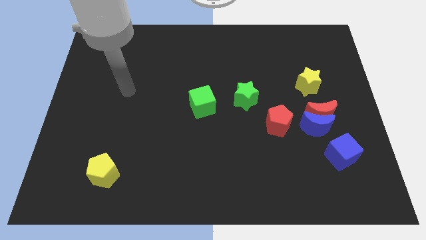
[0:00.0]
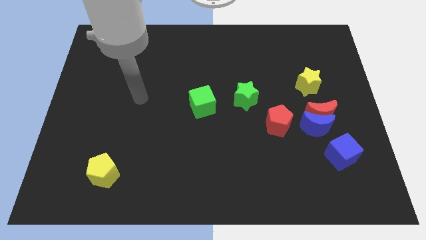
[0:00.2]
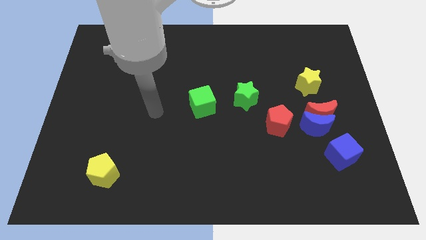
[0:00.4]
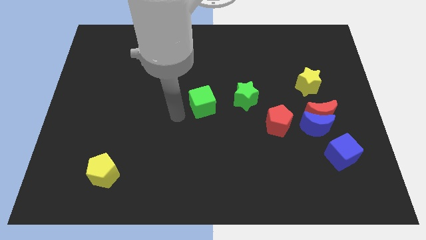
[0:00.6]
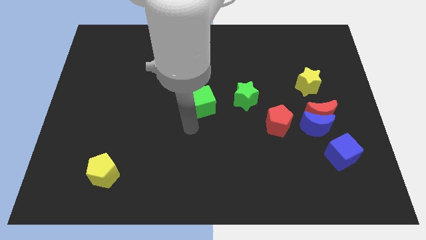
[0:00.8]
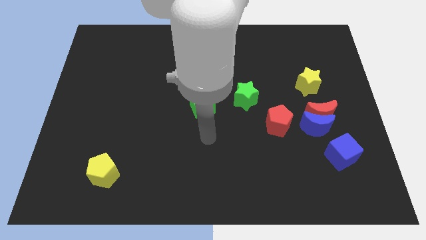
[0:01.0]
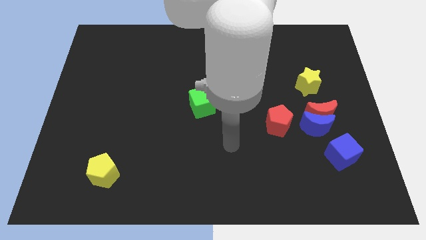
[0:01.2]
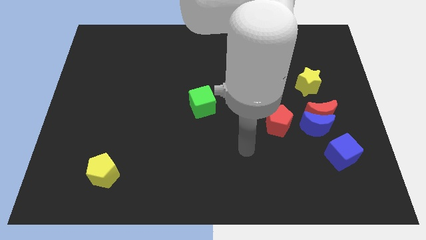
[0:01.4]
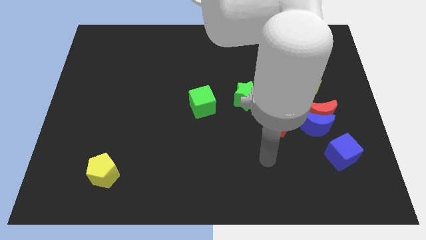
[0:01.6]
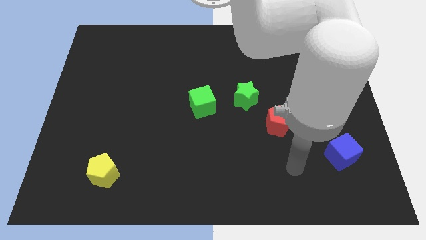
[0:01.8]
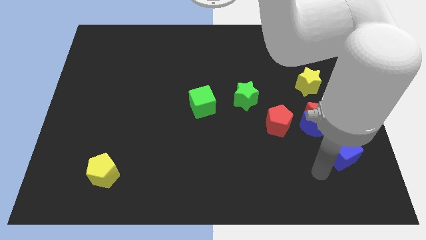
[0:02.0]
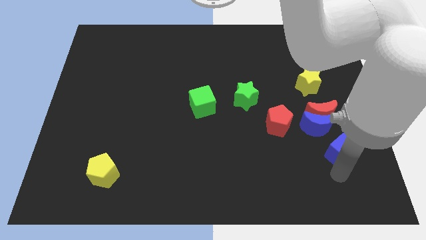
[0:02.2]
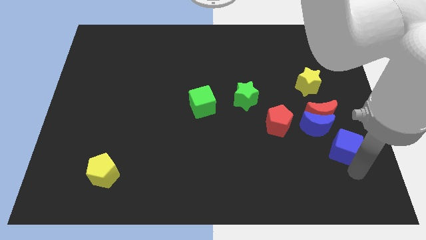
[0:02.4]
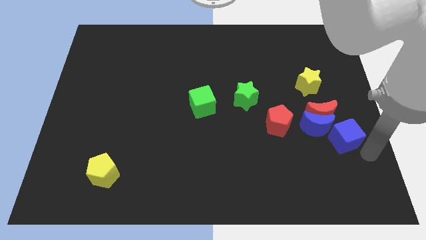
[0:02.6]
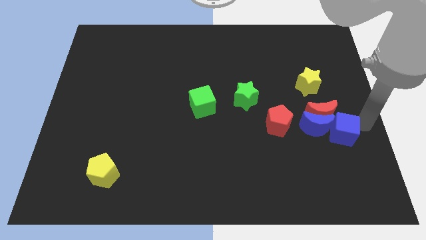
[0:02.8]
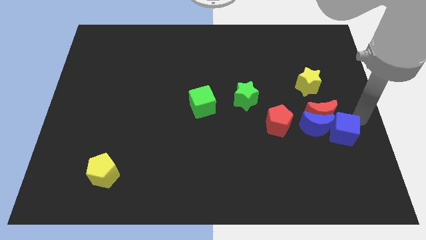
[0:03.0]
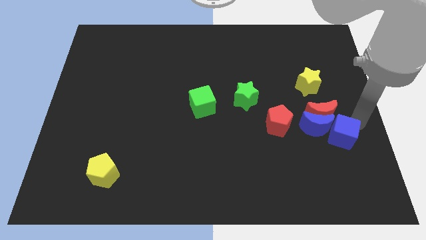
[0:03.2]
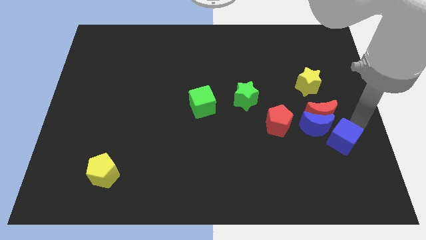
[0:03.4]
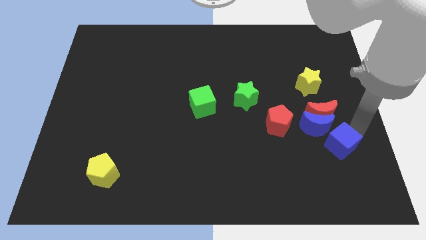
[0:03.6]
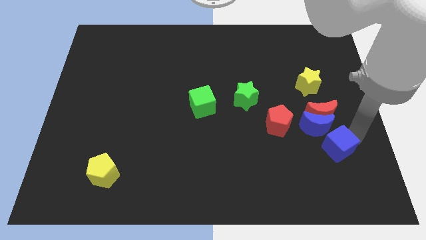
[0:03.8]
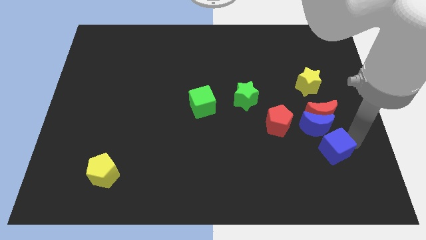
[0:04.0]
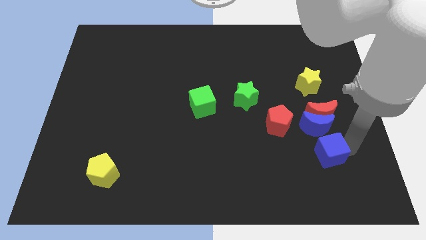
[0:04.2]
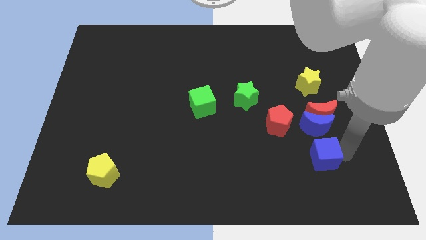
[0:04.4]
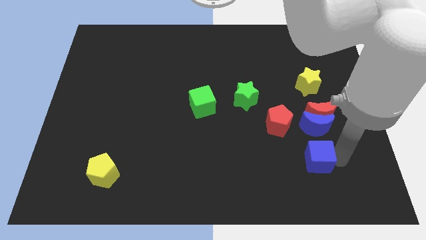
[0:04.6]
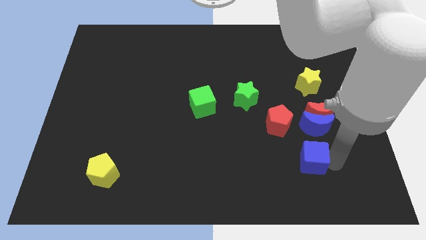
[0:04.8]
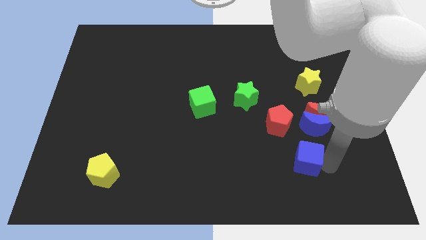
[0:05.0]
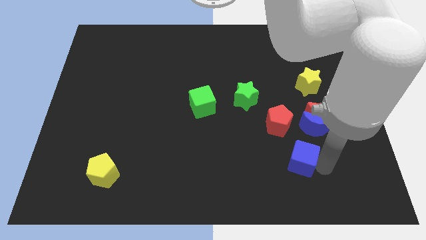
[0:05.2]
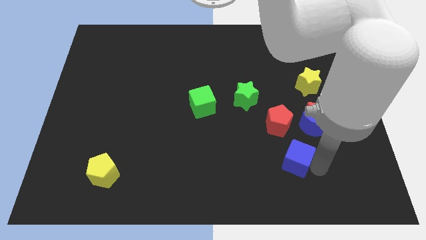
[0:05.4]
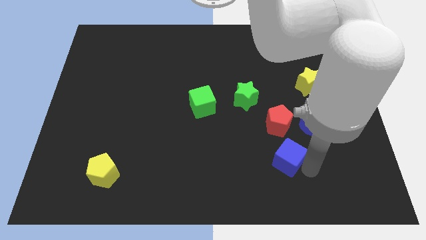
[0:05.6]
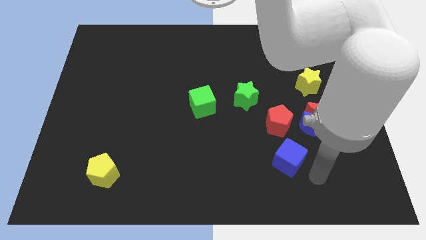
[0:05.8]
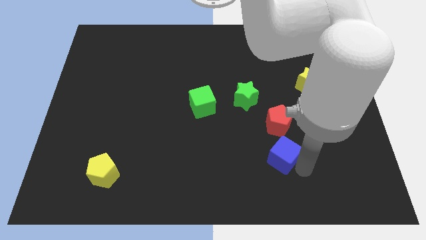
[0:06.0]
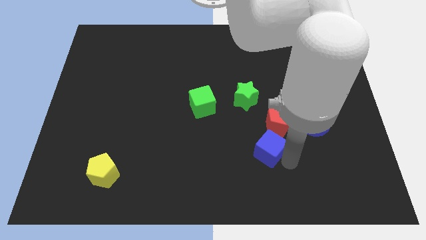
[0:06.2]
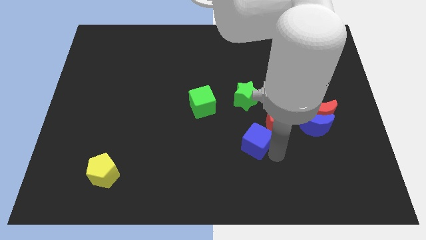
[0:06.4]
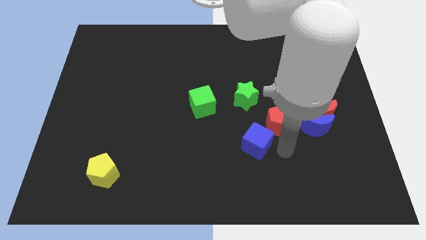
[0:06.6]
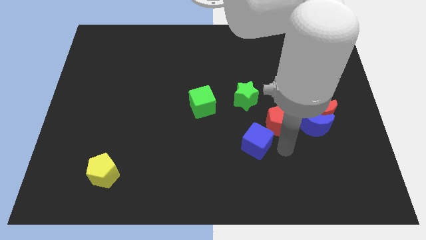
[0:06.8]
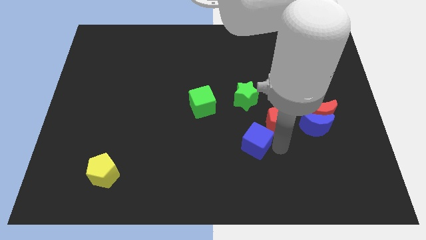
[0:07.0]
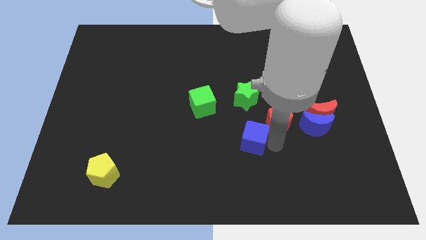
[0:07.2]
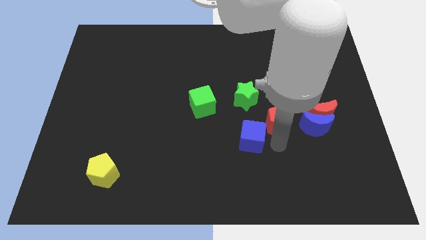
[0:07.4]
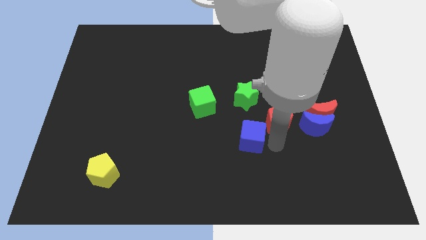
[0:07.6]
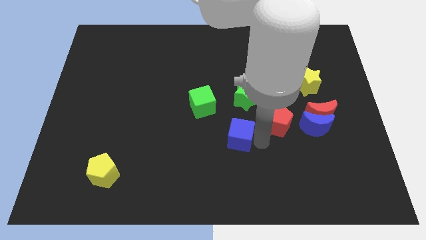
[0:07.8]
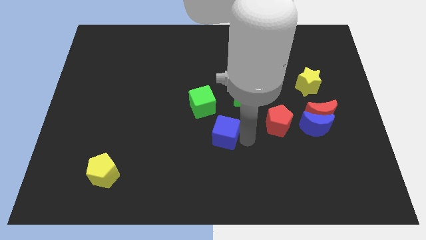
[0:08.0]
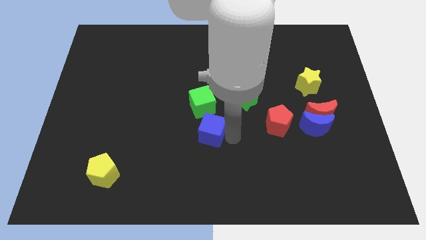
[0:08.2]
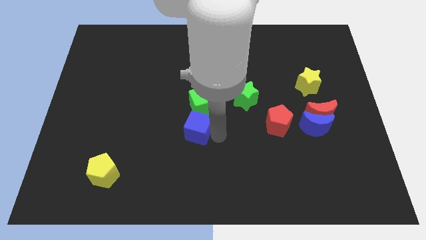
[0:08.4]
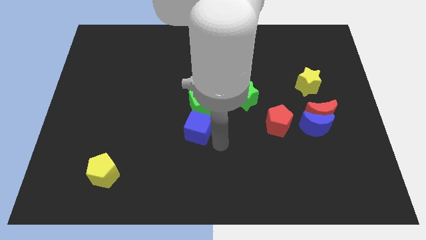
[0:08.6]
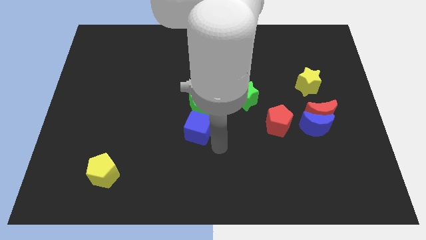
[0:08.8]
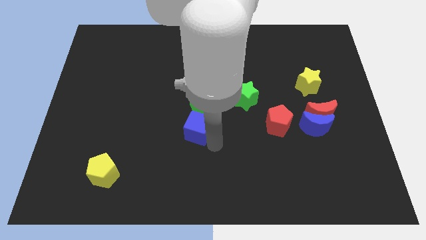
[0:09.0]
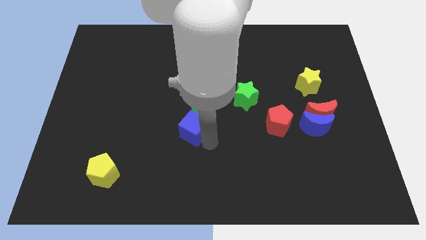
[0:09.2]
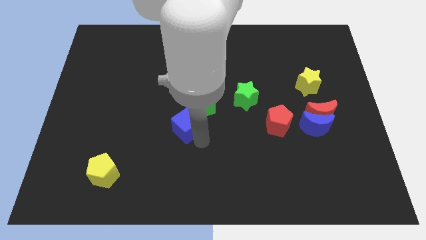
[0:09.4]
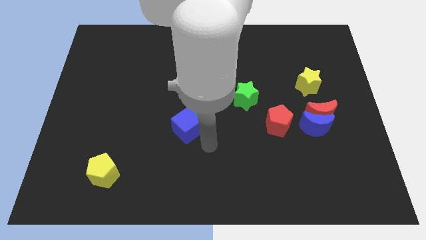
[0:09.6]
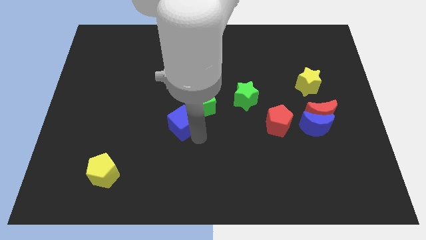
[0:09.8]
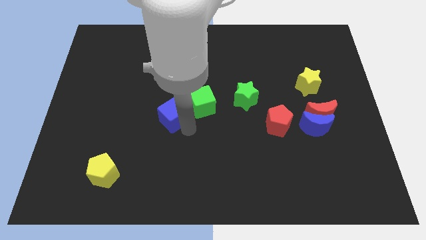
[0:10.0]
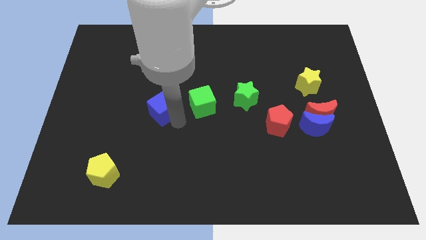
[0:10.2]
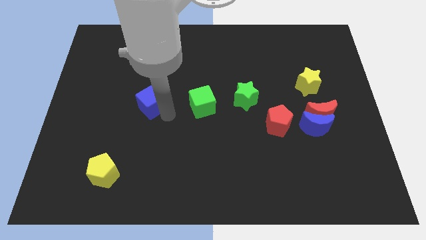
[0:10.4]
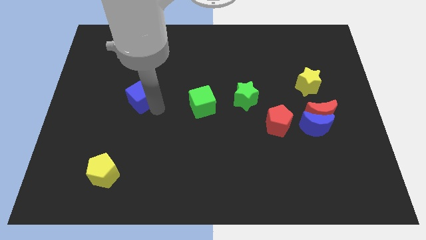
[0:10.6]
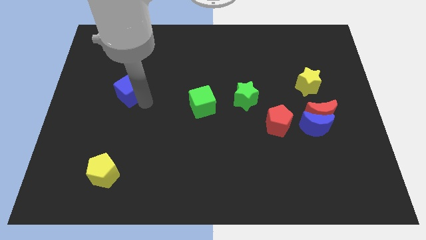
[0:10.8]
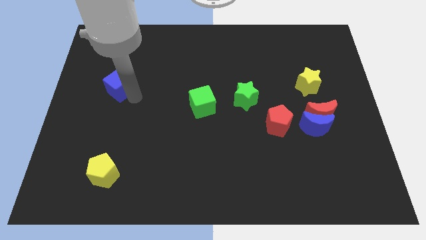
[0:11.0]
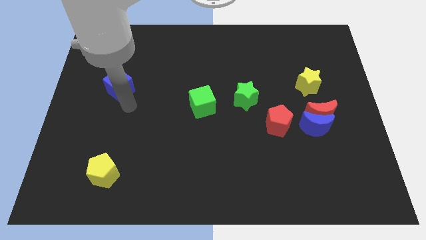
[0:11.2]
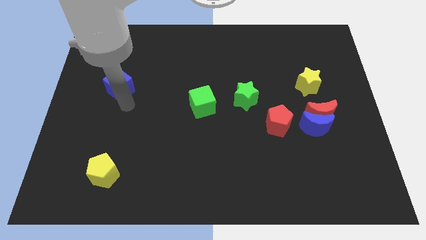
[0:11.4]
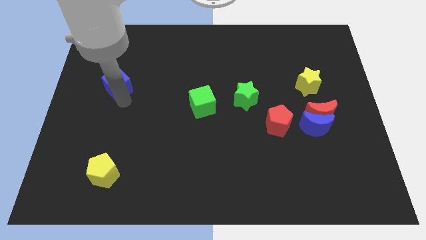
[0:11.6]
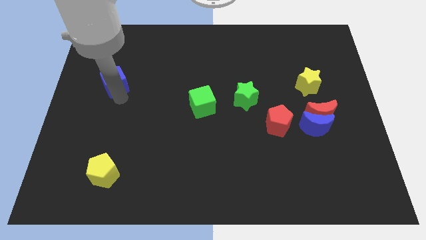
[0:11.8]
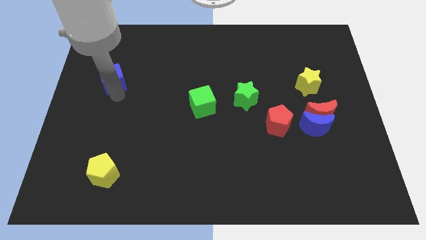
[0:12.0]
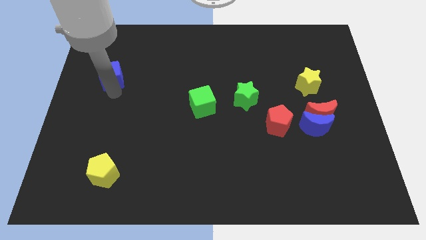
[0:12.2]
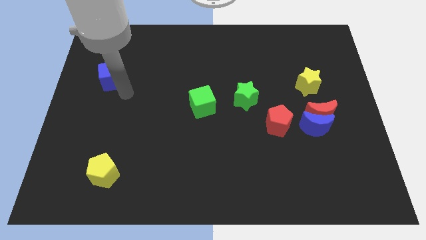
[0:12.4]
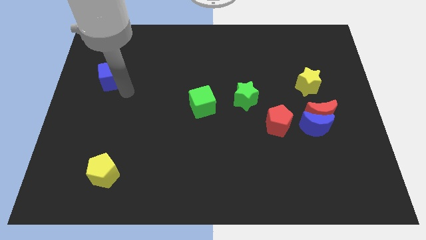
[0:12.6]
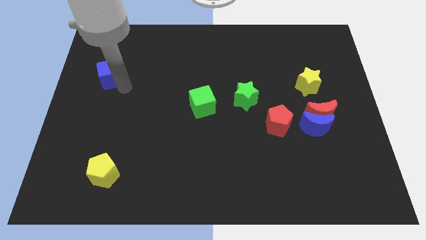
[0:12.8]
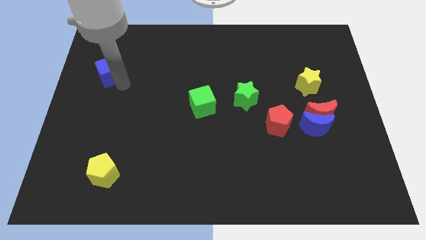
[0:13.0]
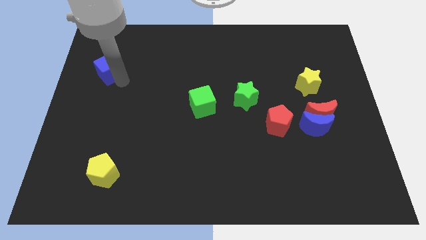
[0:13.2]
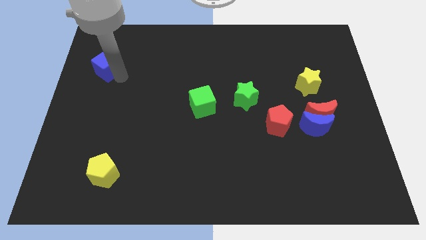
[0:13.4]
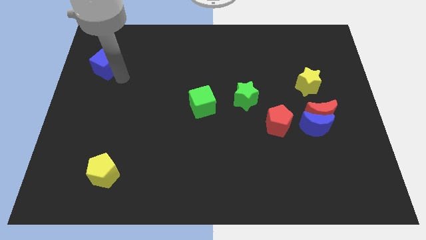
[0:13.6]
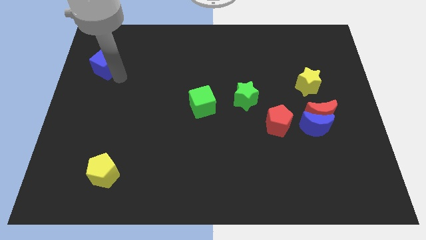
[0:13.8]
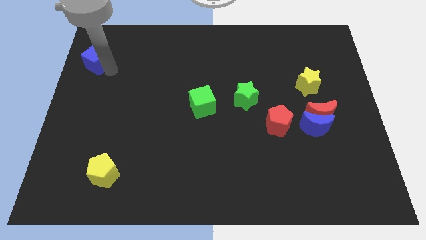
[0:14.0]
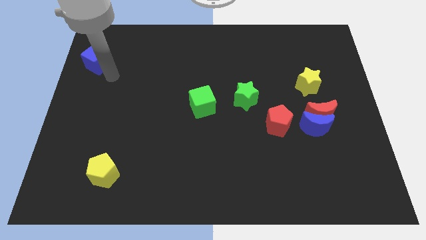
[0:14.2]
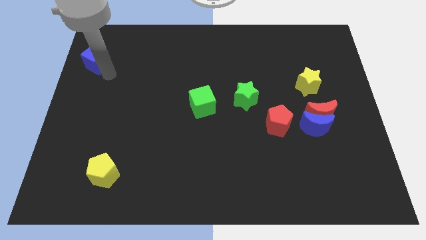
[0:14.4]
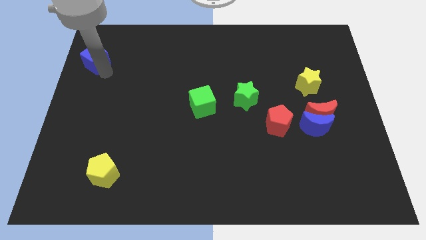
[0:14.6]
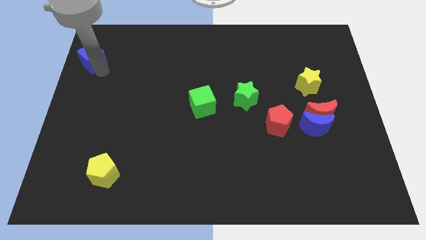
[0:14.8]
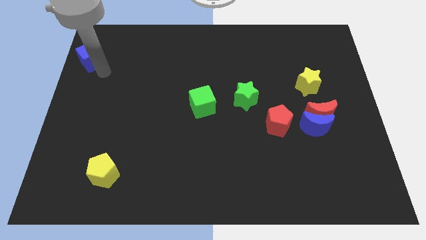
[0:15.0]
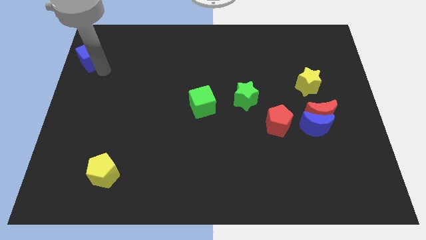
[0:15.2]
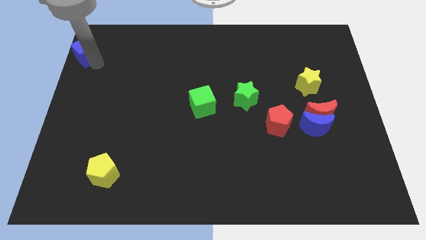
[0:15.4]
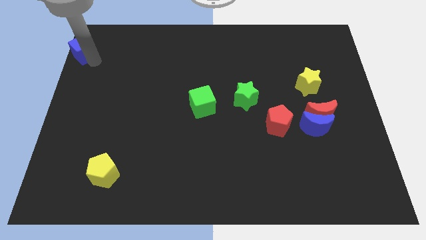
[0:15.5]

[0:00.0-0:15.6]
push the blue cube to the upper left corner
